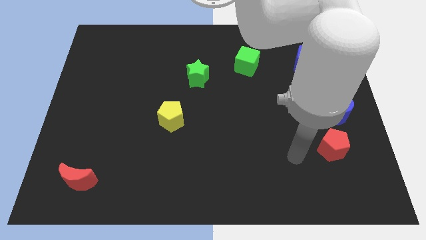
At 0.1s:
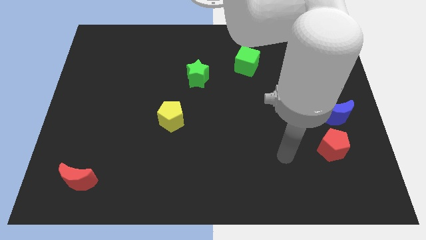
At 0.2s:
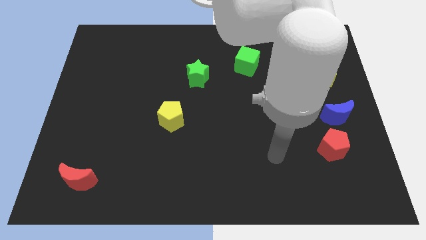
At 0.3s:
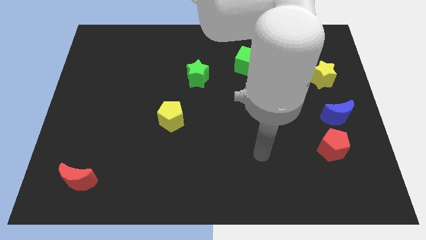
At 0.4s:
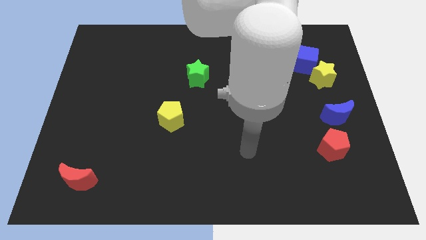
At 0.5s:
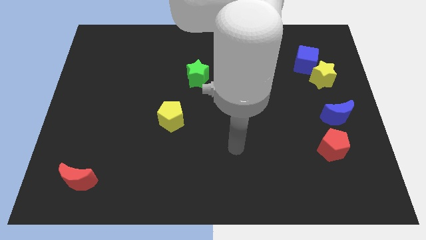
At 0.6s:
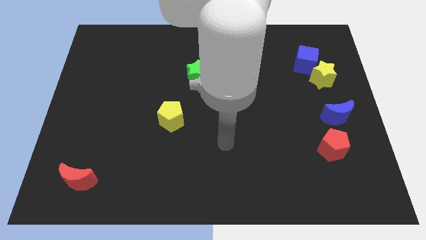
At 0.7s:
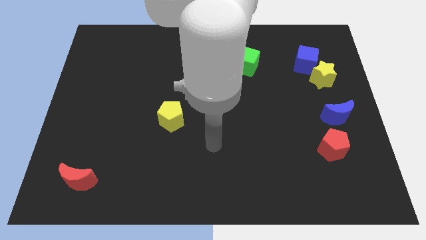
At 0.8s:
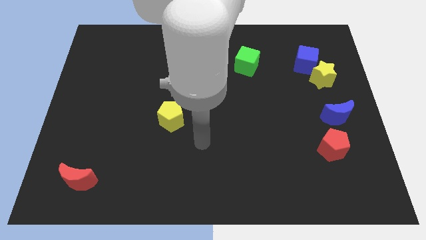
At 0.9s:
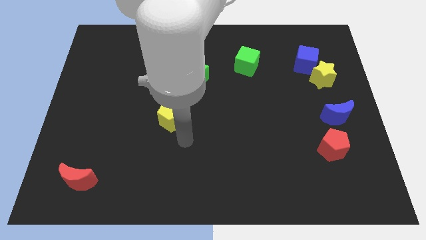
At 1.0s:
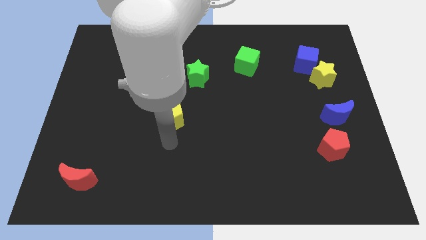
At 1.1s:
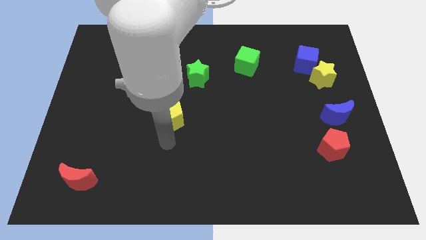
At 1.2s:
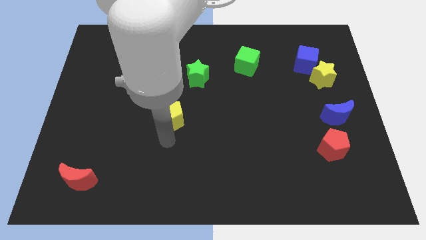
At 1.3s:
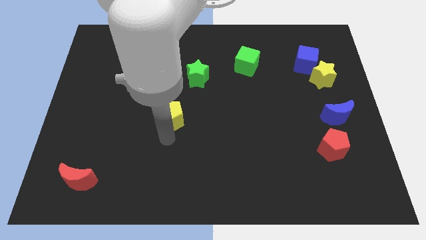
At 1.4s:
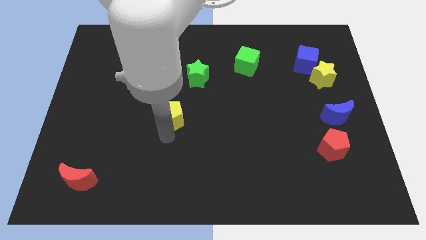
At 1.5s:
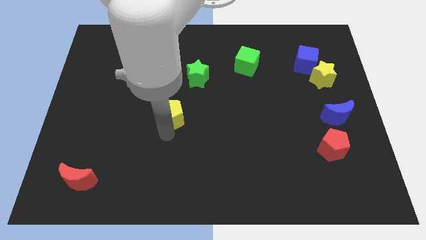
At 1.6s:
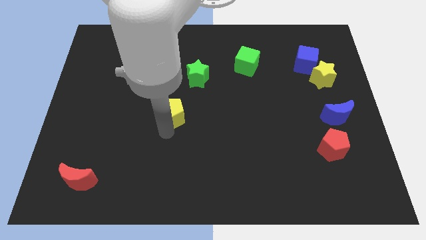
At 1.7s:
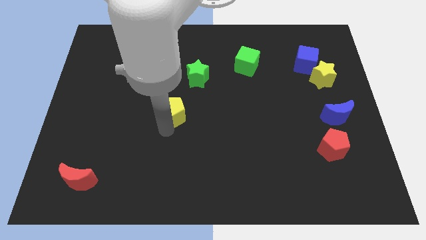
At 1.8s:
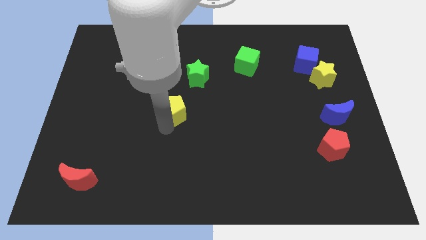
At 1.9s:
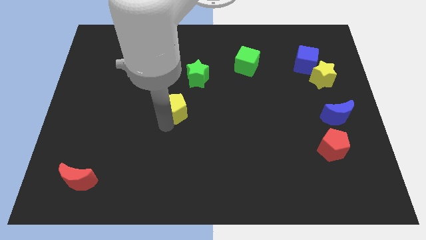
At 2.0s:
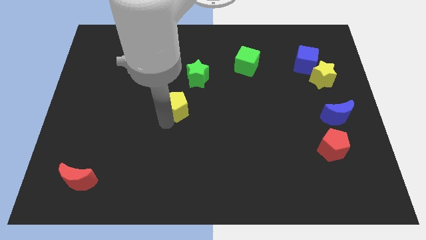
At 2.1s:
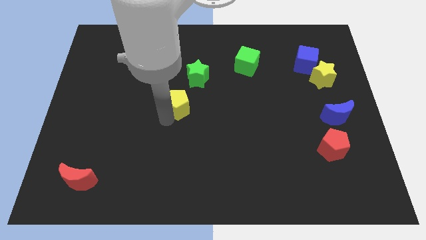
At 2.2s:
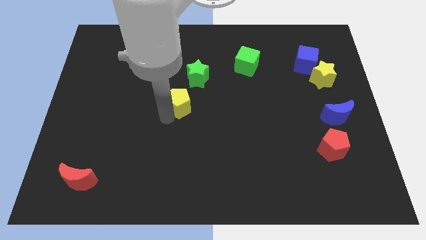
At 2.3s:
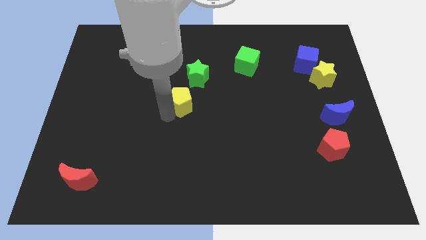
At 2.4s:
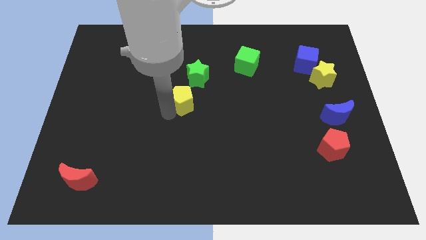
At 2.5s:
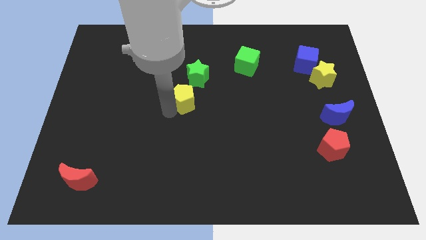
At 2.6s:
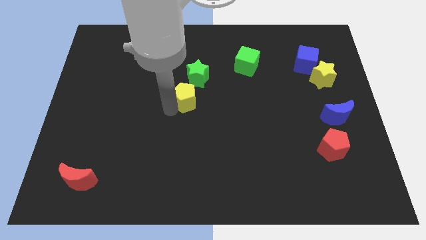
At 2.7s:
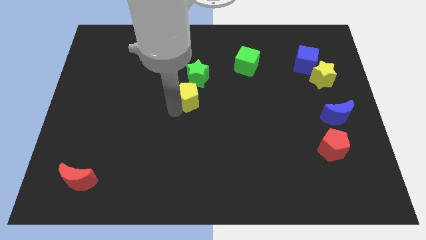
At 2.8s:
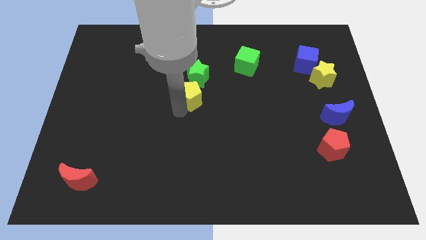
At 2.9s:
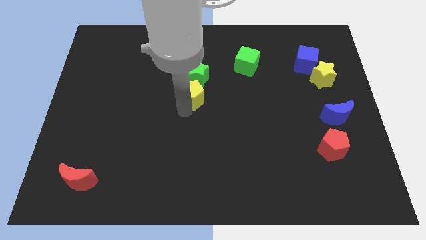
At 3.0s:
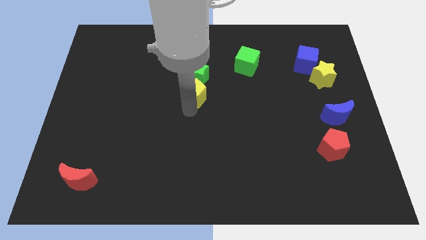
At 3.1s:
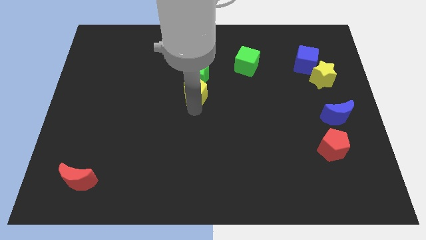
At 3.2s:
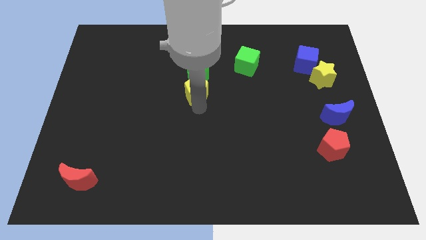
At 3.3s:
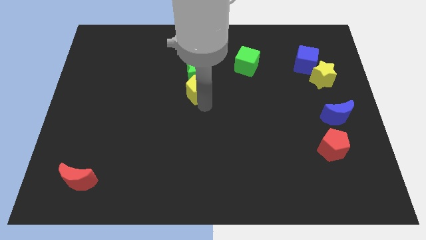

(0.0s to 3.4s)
push the yellow pentagon up slightly

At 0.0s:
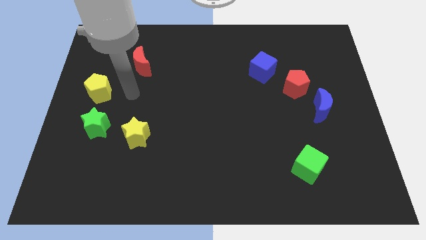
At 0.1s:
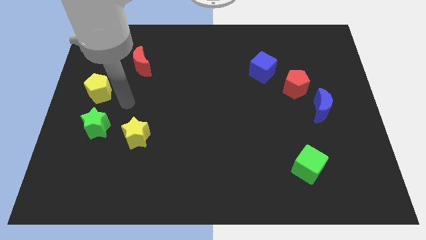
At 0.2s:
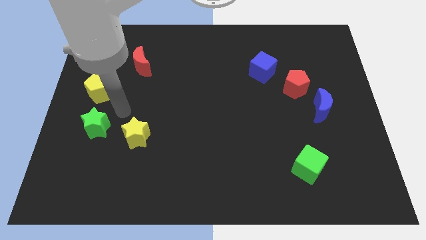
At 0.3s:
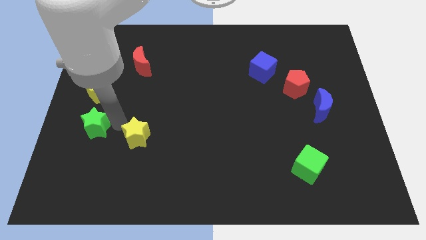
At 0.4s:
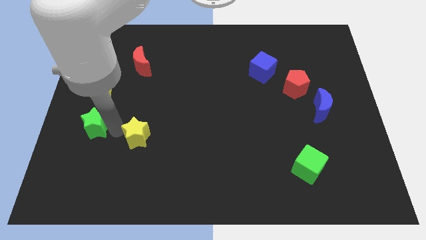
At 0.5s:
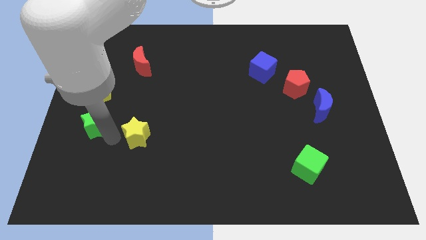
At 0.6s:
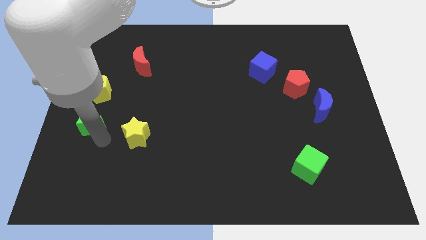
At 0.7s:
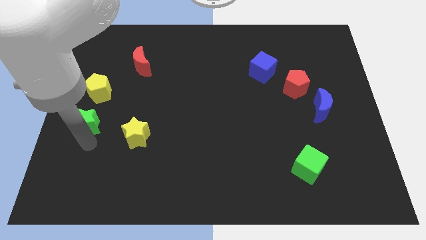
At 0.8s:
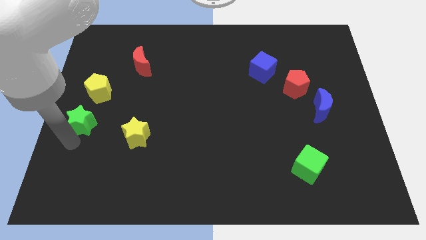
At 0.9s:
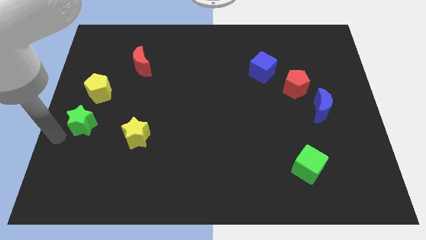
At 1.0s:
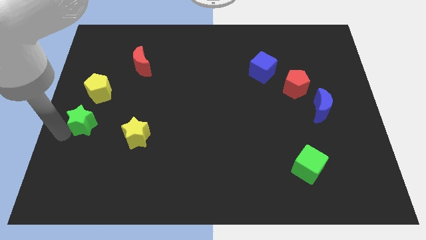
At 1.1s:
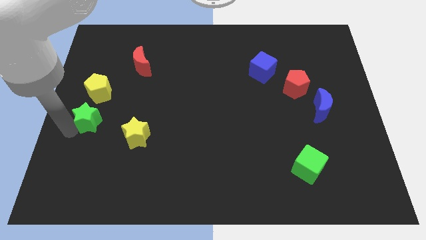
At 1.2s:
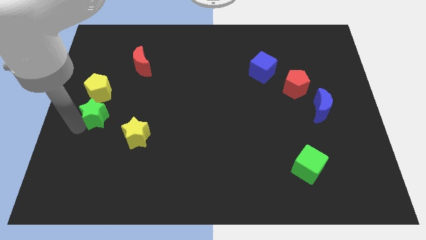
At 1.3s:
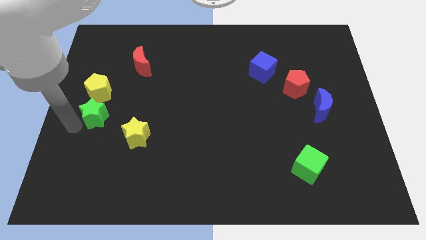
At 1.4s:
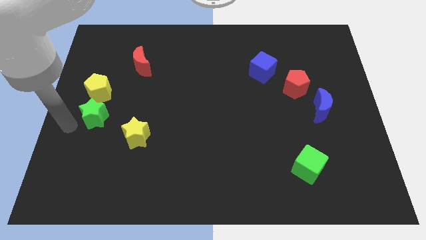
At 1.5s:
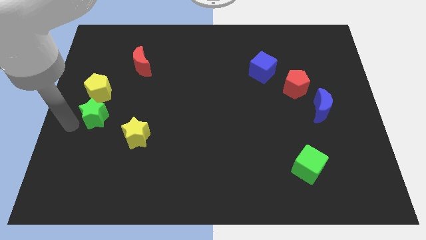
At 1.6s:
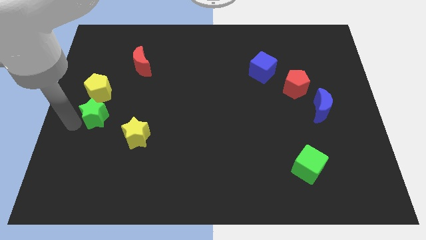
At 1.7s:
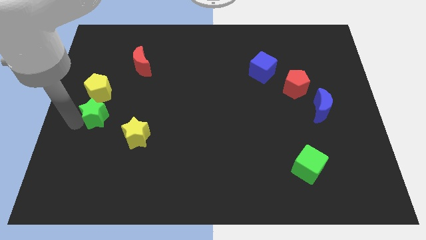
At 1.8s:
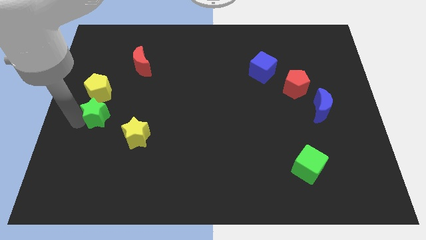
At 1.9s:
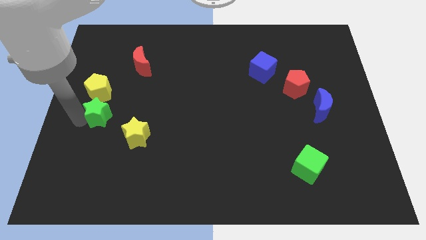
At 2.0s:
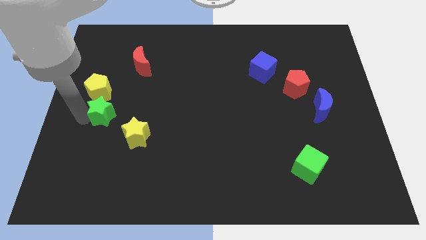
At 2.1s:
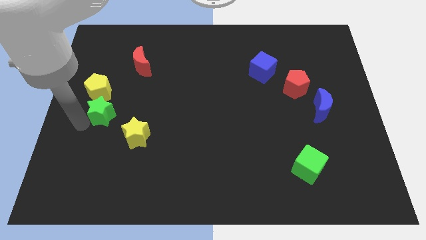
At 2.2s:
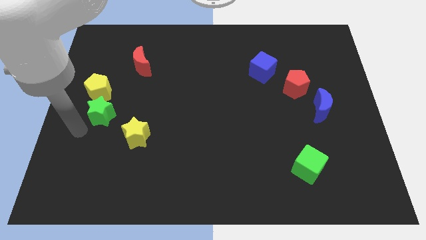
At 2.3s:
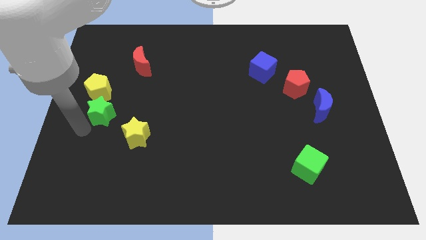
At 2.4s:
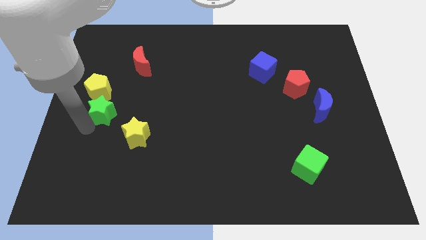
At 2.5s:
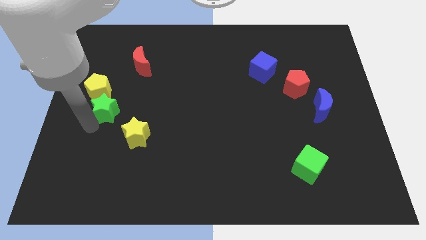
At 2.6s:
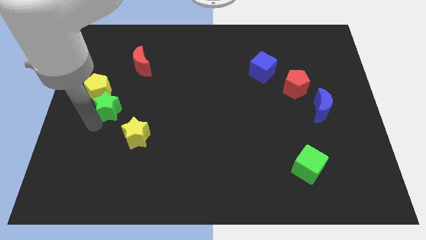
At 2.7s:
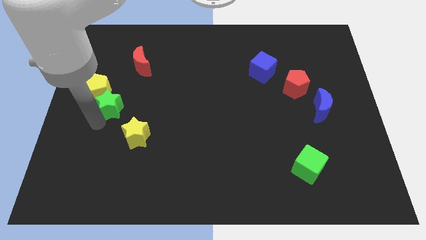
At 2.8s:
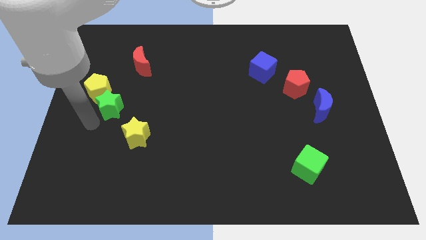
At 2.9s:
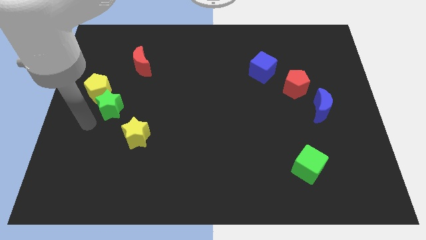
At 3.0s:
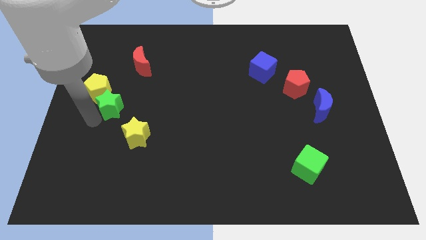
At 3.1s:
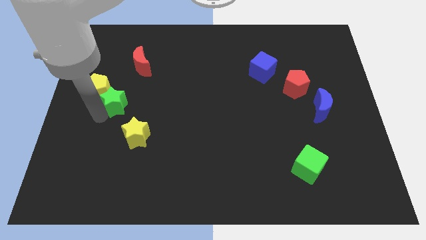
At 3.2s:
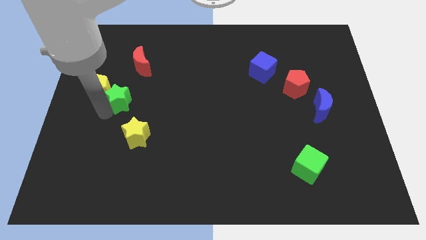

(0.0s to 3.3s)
move the green star a bit upwards and then to the right

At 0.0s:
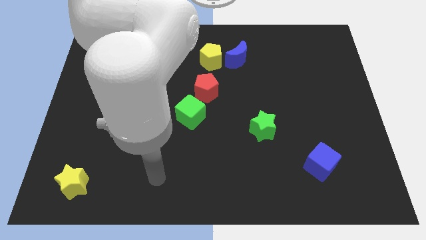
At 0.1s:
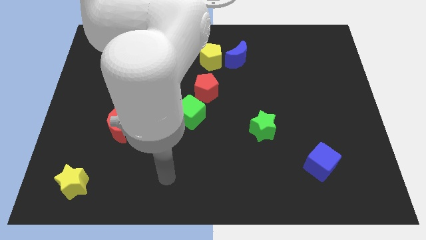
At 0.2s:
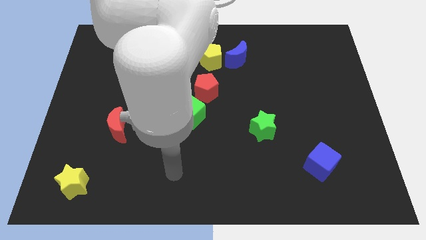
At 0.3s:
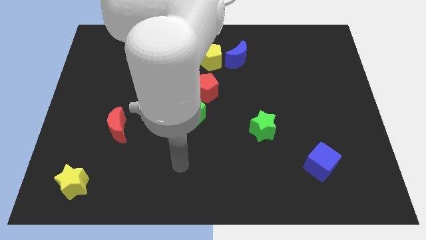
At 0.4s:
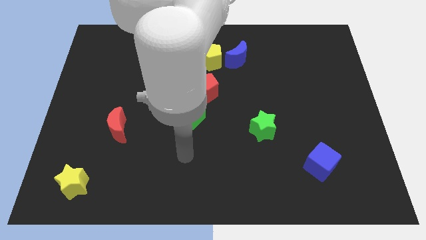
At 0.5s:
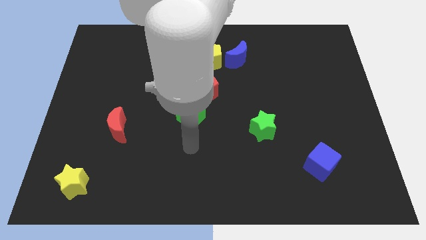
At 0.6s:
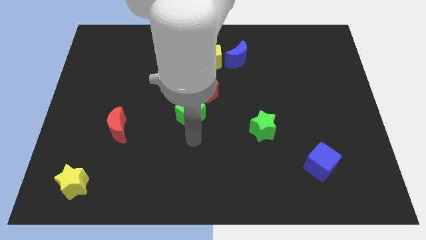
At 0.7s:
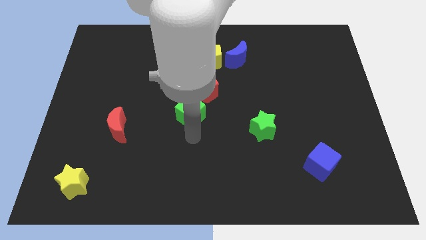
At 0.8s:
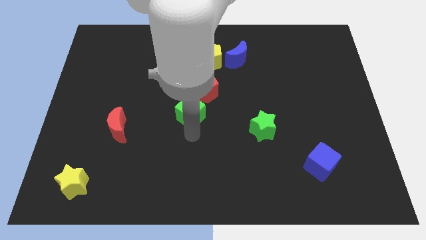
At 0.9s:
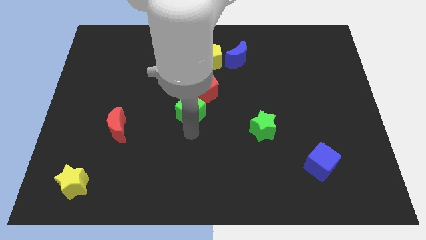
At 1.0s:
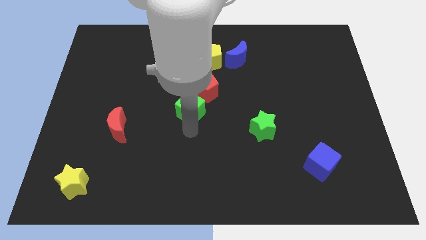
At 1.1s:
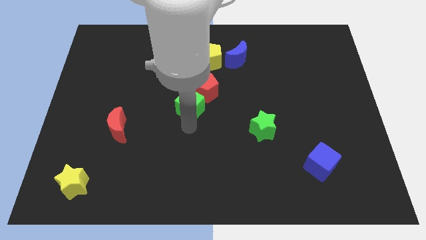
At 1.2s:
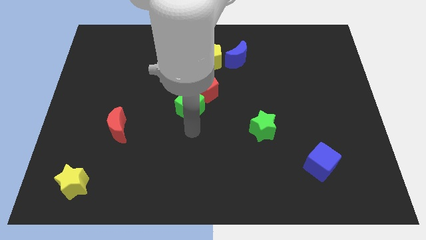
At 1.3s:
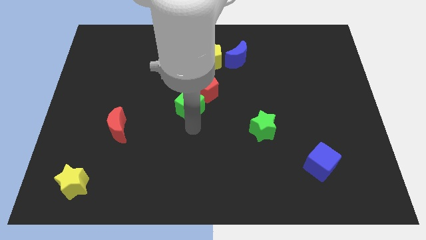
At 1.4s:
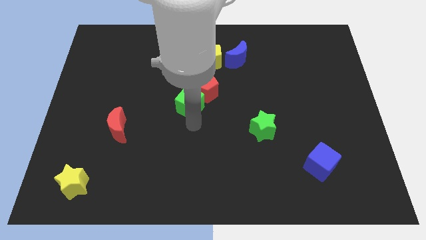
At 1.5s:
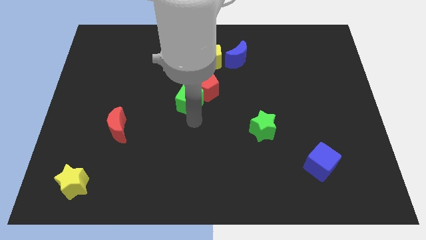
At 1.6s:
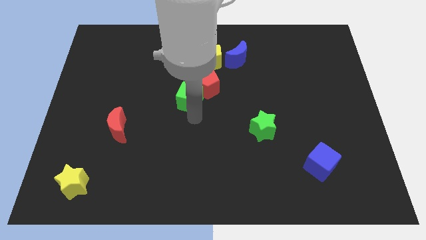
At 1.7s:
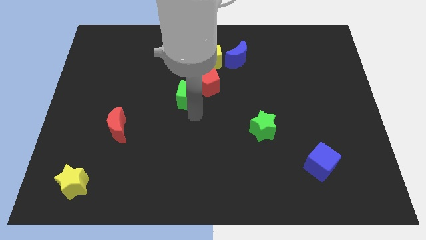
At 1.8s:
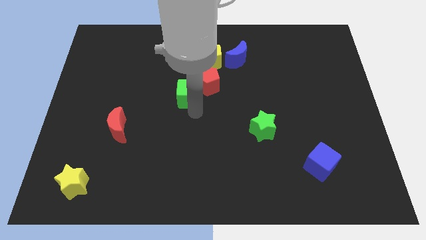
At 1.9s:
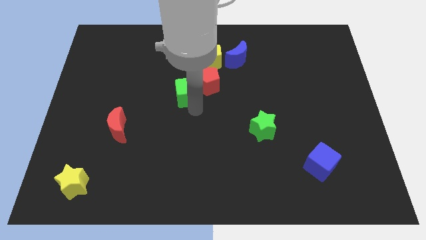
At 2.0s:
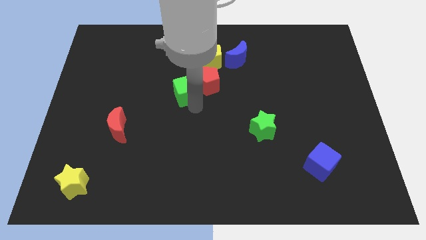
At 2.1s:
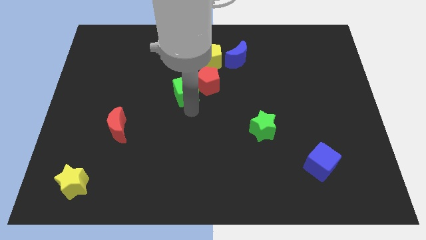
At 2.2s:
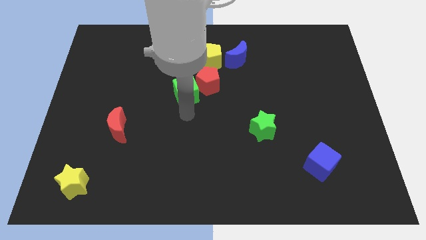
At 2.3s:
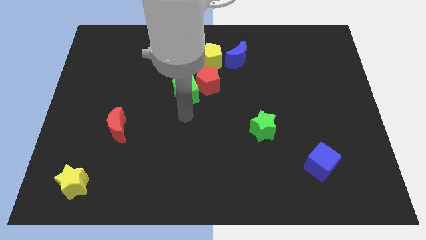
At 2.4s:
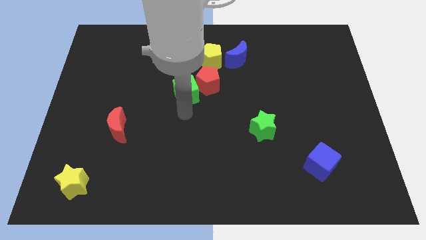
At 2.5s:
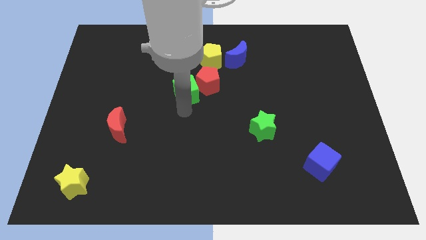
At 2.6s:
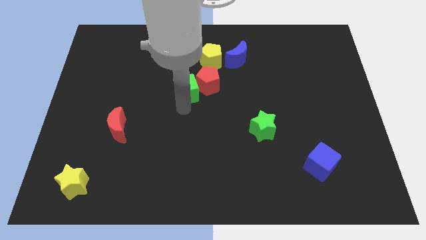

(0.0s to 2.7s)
push the green cube slightly upwards
